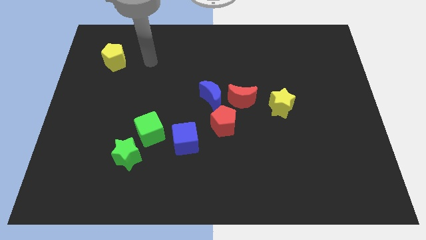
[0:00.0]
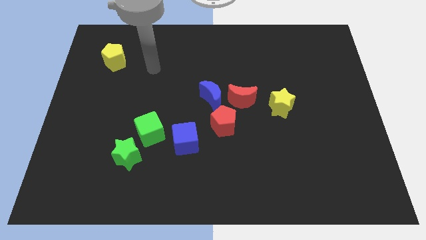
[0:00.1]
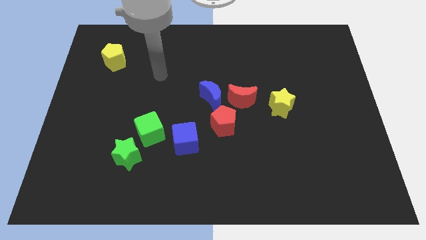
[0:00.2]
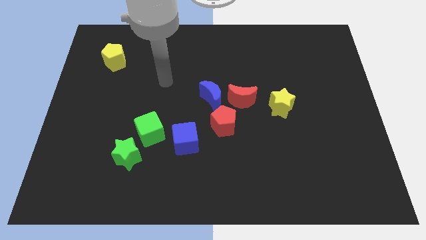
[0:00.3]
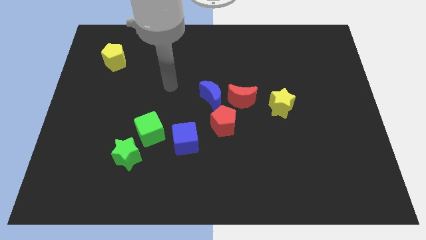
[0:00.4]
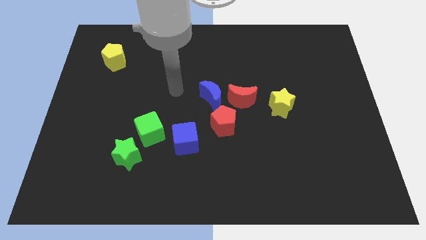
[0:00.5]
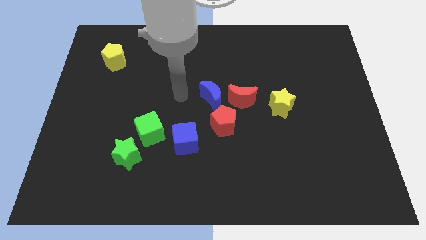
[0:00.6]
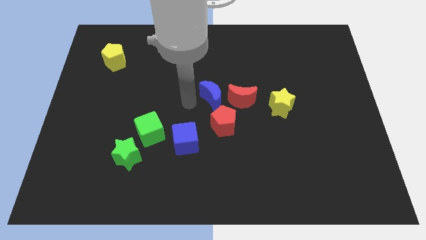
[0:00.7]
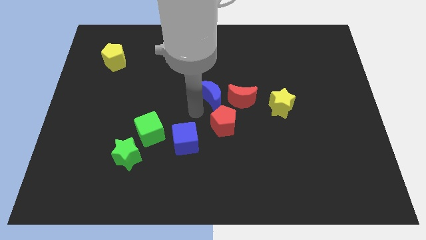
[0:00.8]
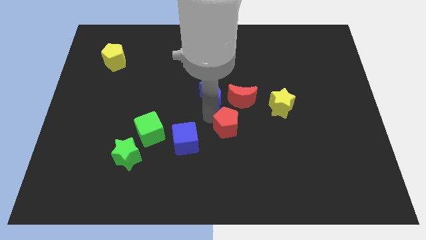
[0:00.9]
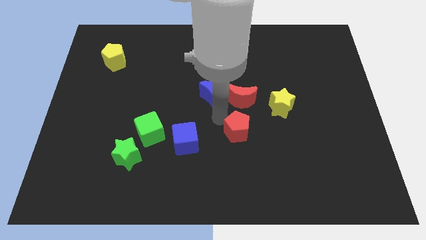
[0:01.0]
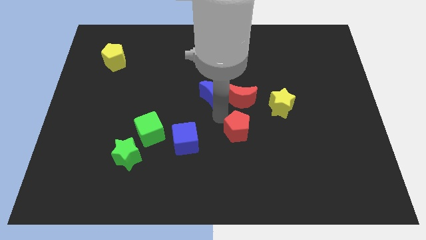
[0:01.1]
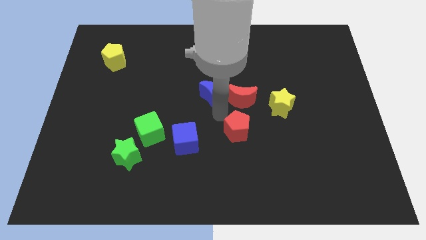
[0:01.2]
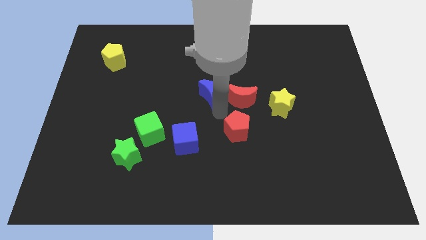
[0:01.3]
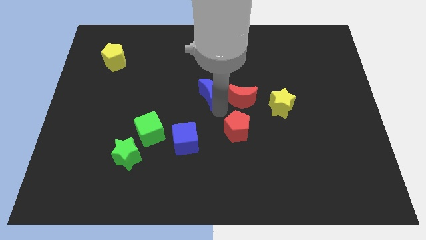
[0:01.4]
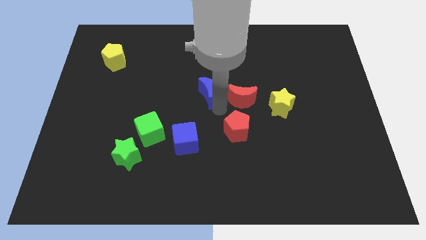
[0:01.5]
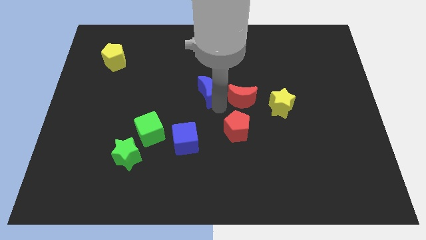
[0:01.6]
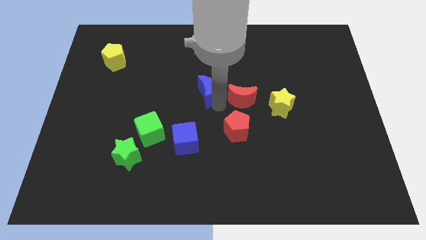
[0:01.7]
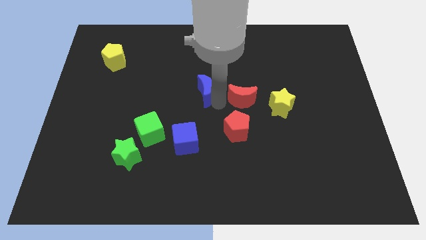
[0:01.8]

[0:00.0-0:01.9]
separate the blue moon from the red moon and red pentagon

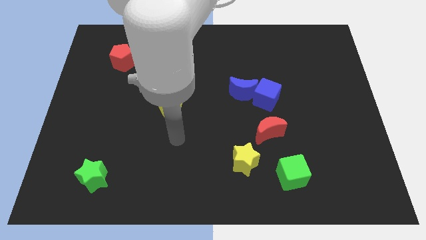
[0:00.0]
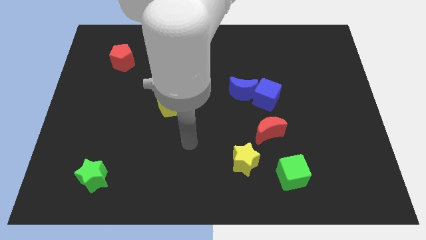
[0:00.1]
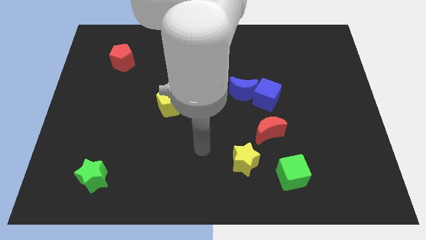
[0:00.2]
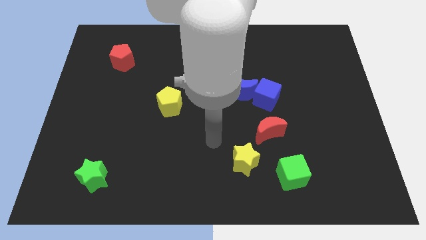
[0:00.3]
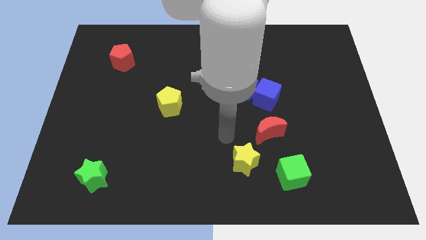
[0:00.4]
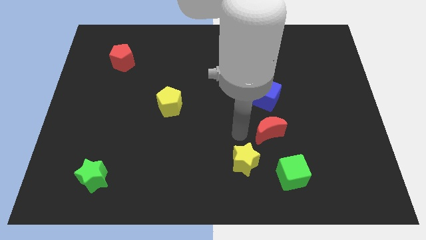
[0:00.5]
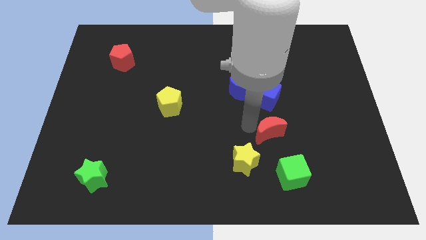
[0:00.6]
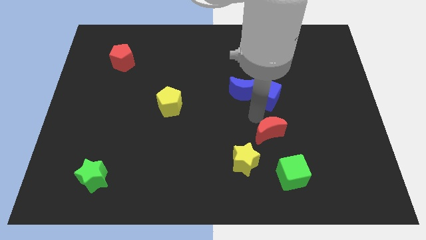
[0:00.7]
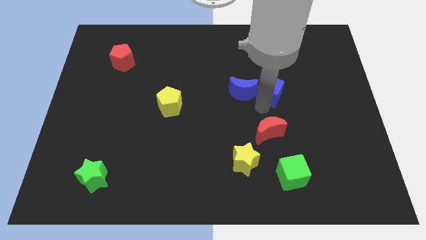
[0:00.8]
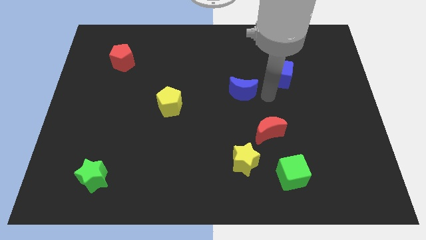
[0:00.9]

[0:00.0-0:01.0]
move the blue moon away from the blue cube

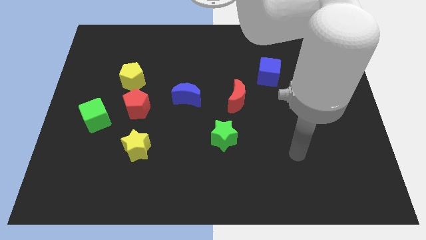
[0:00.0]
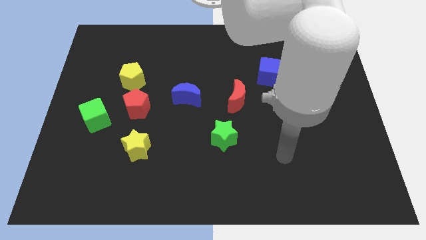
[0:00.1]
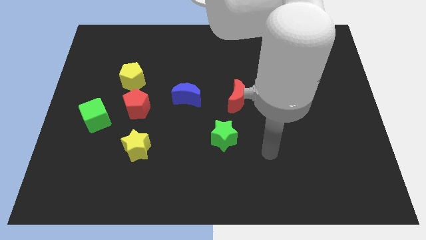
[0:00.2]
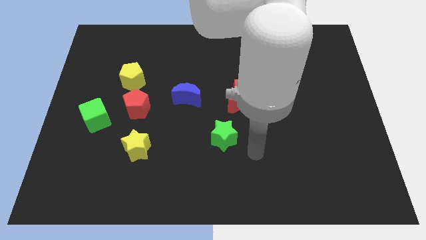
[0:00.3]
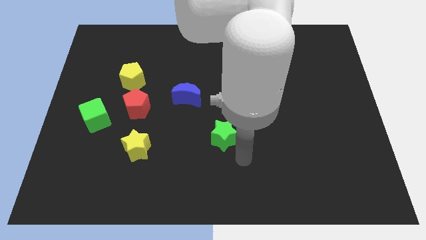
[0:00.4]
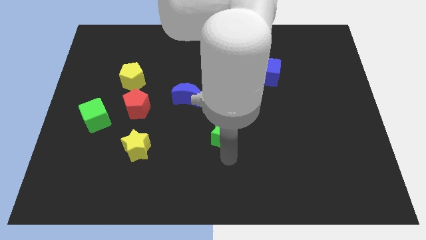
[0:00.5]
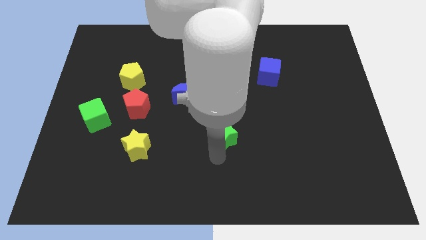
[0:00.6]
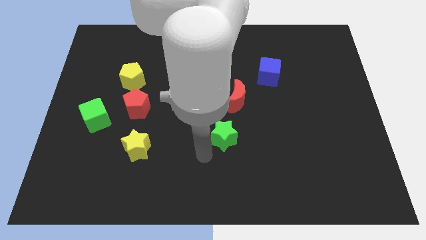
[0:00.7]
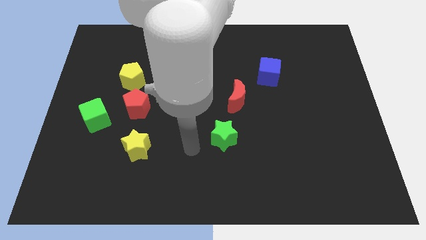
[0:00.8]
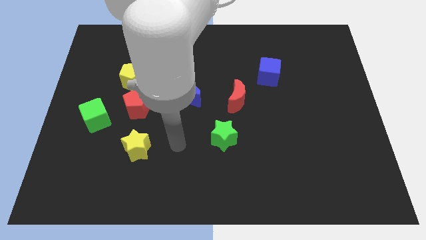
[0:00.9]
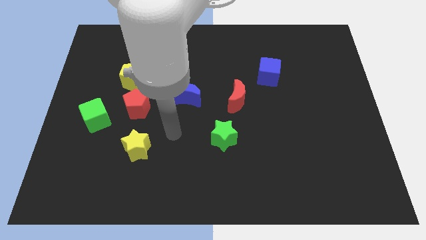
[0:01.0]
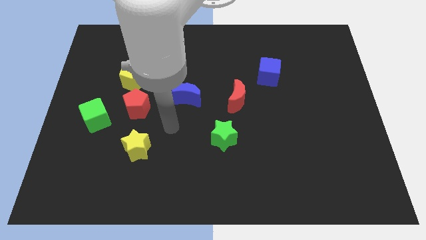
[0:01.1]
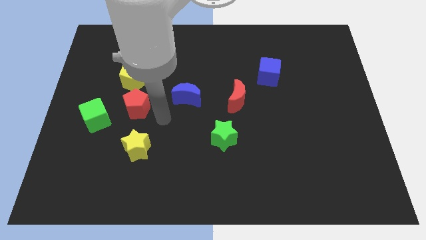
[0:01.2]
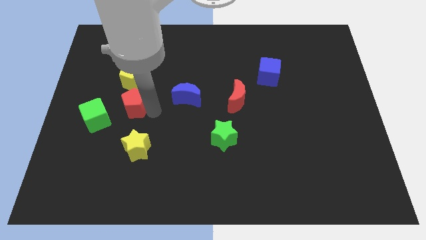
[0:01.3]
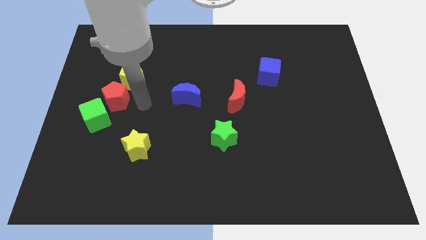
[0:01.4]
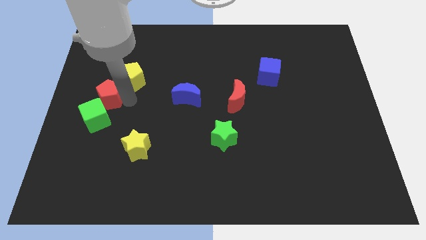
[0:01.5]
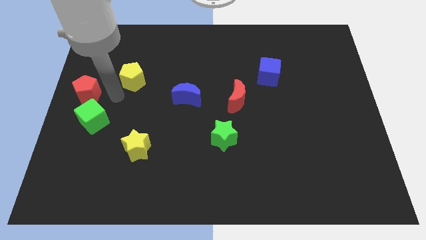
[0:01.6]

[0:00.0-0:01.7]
move the yellow pentagon away from the red pentagon

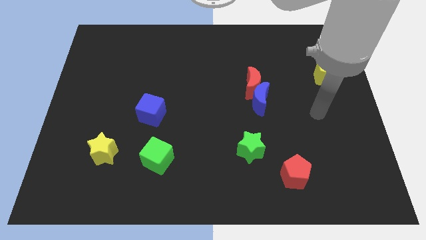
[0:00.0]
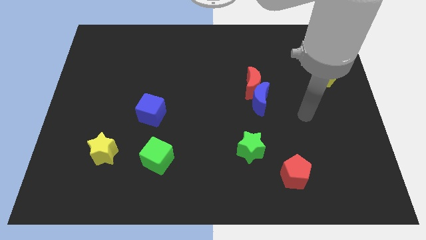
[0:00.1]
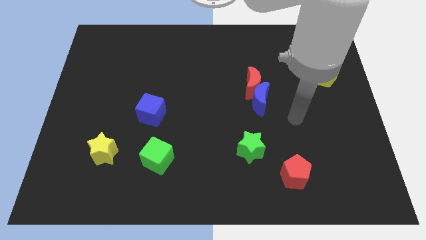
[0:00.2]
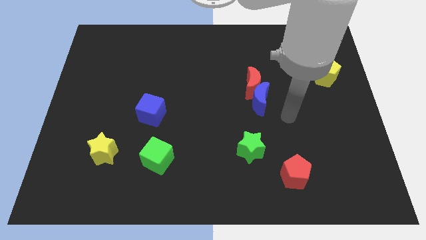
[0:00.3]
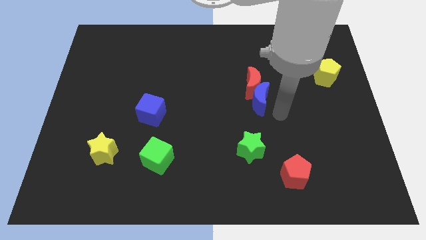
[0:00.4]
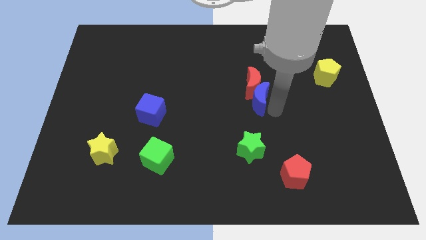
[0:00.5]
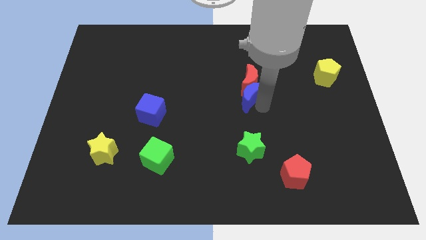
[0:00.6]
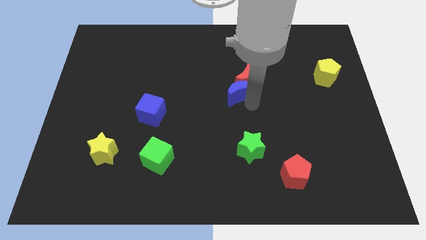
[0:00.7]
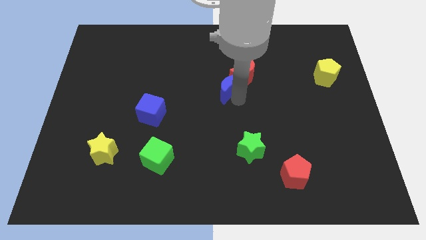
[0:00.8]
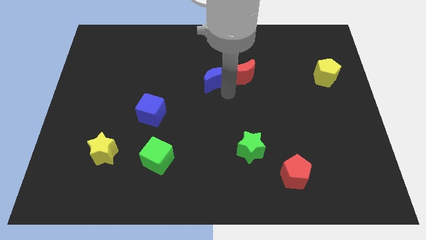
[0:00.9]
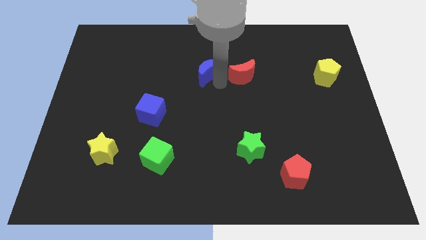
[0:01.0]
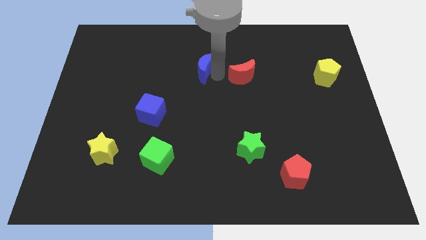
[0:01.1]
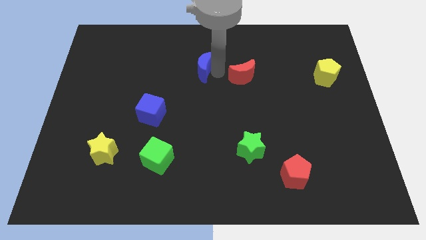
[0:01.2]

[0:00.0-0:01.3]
separate the red moon from the blue moon

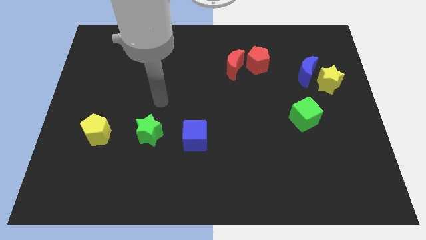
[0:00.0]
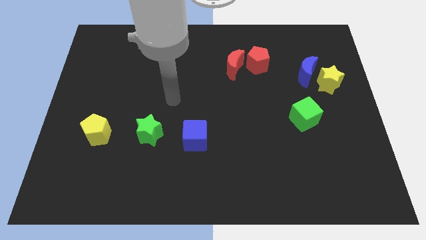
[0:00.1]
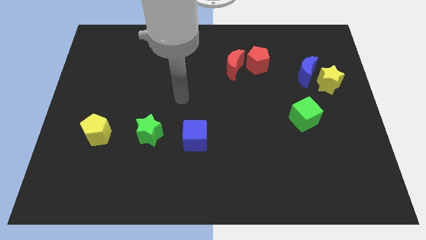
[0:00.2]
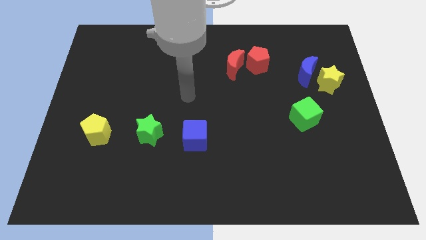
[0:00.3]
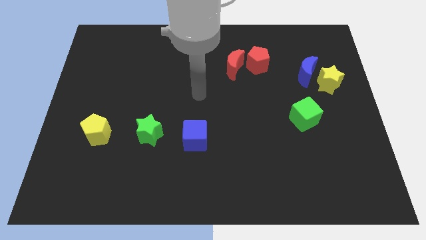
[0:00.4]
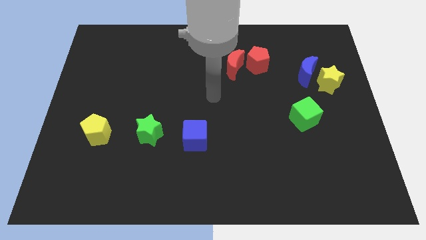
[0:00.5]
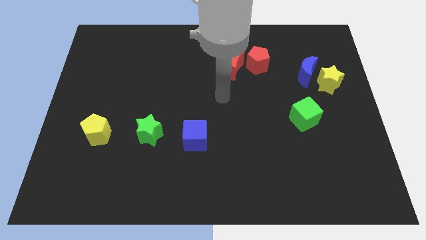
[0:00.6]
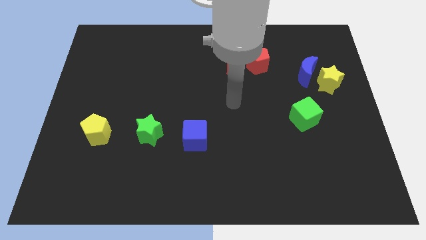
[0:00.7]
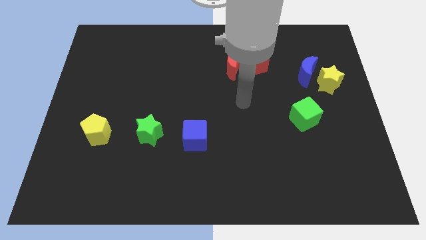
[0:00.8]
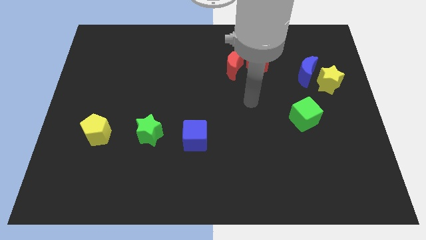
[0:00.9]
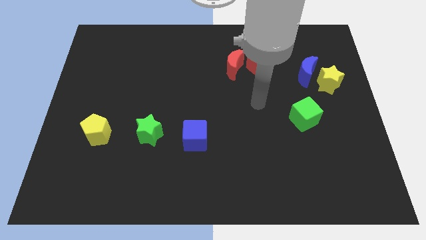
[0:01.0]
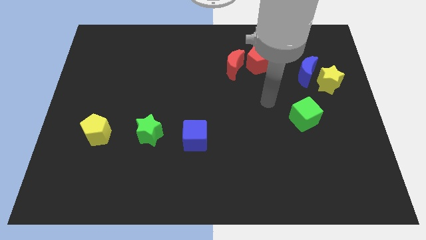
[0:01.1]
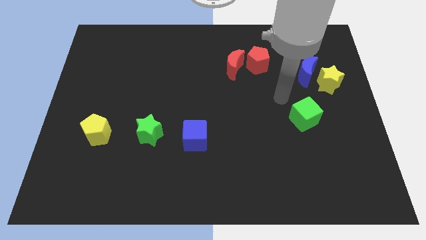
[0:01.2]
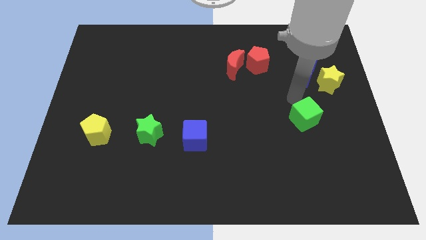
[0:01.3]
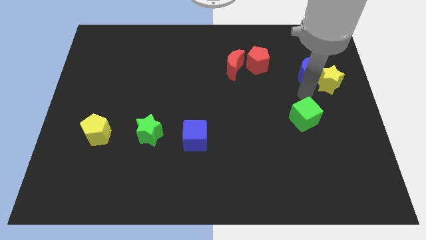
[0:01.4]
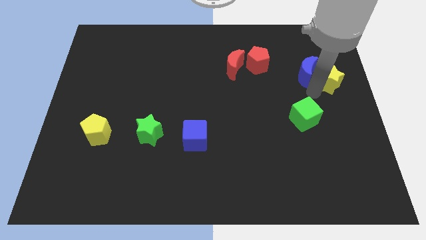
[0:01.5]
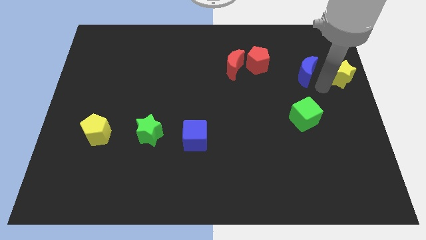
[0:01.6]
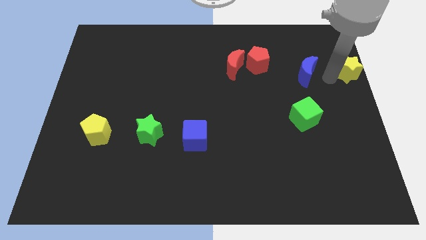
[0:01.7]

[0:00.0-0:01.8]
move the blue moon away from the yellow star

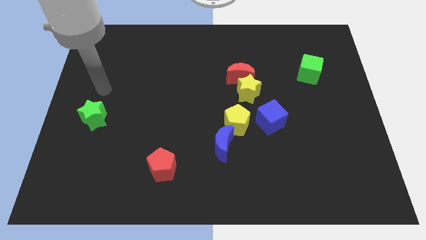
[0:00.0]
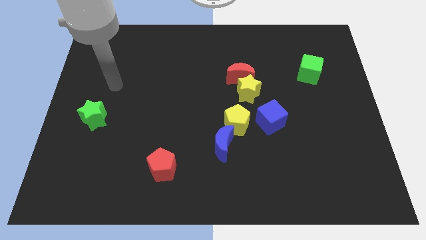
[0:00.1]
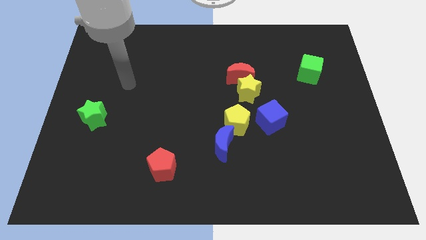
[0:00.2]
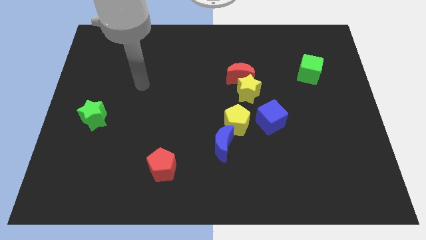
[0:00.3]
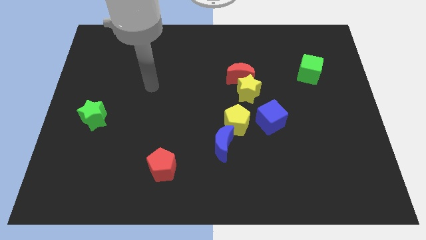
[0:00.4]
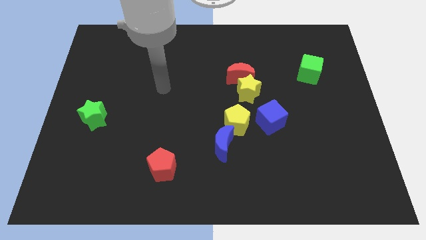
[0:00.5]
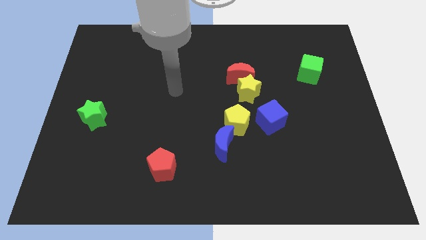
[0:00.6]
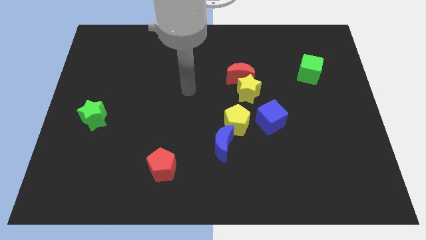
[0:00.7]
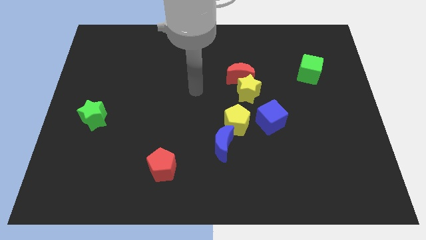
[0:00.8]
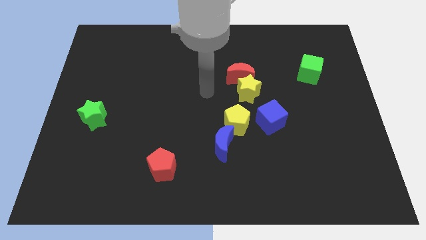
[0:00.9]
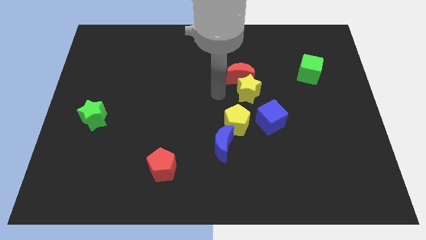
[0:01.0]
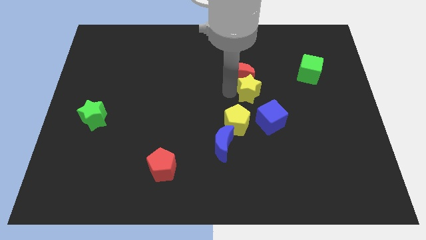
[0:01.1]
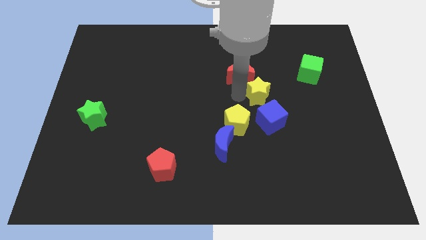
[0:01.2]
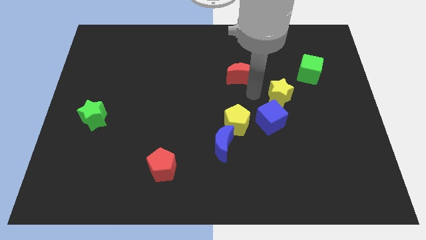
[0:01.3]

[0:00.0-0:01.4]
separate the red moon from the yellow star

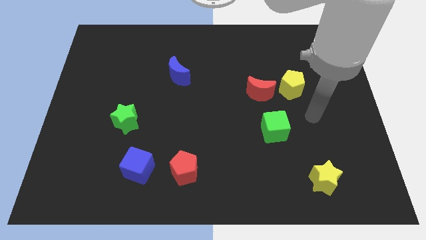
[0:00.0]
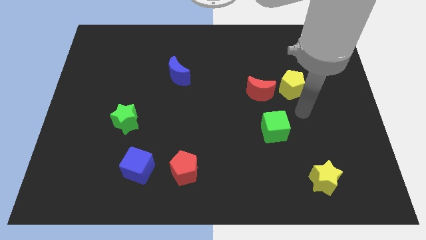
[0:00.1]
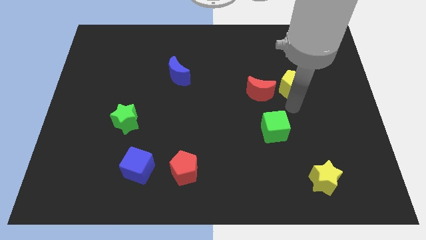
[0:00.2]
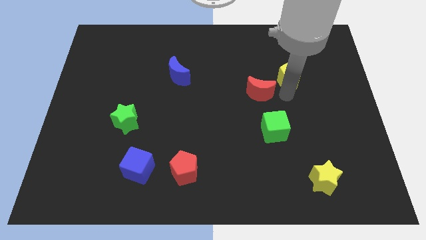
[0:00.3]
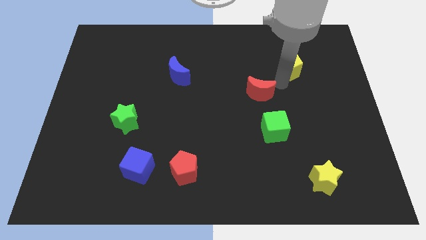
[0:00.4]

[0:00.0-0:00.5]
pull the red moon apart from the yellow pentagon
